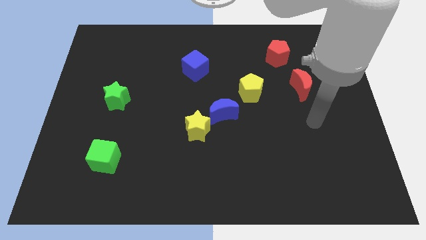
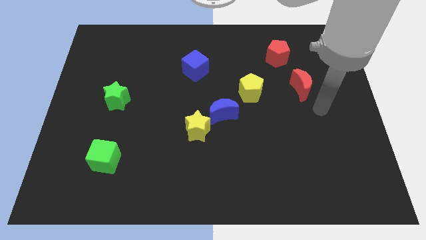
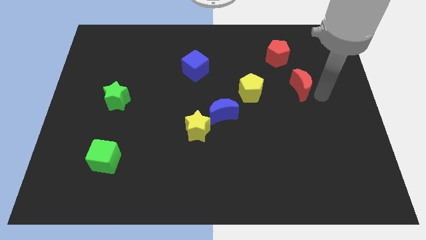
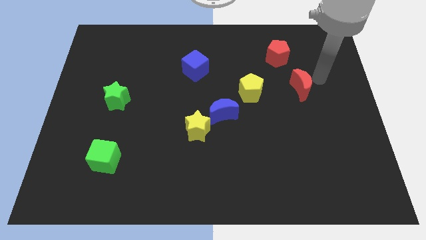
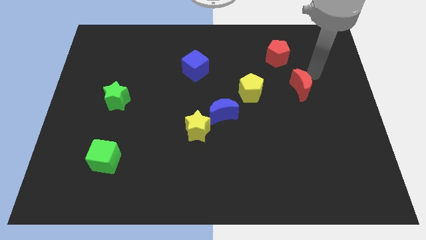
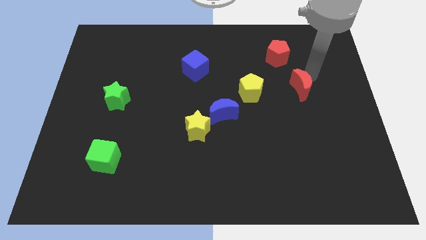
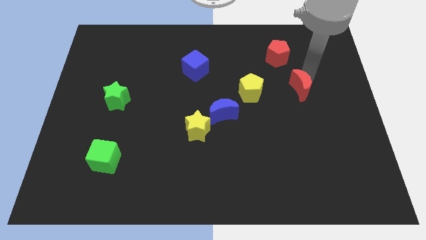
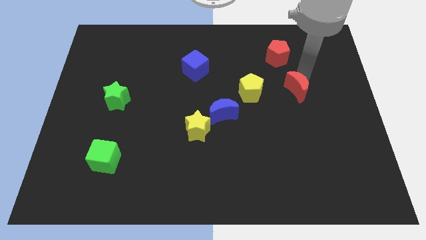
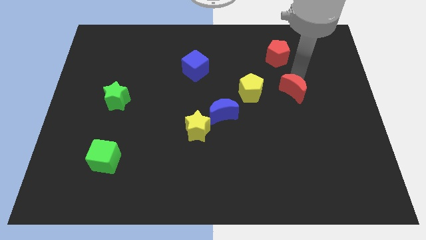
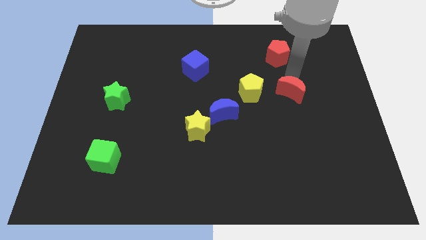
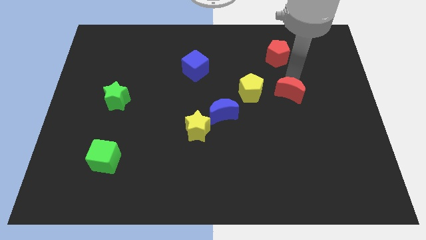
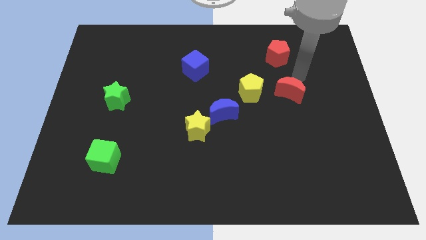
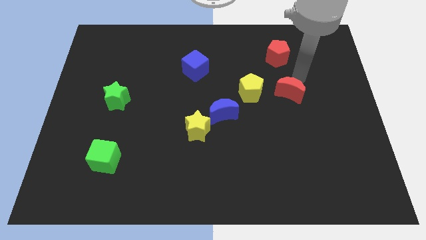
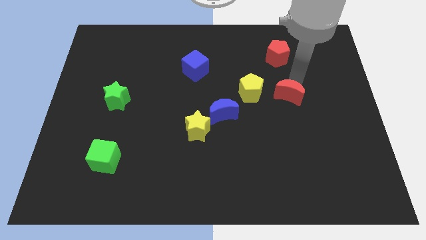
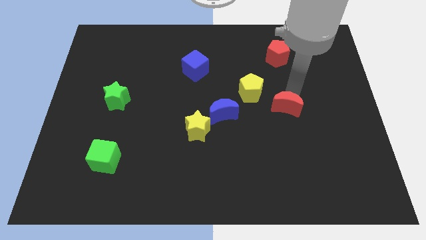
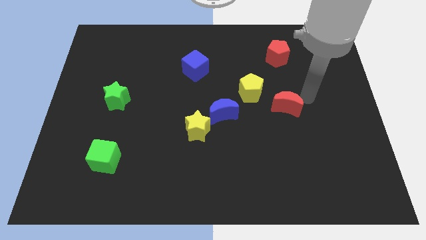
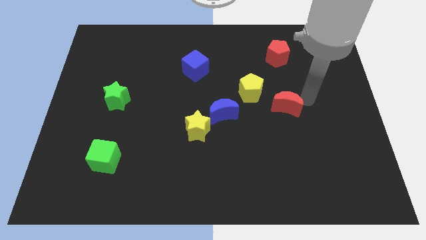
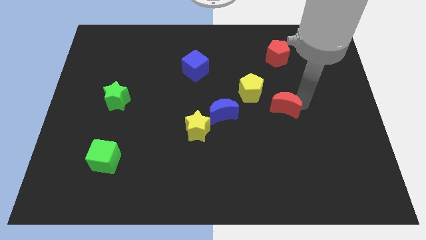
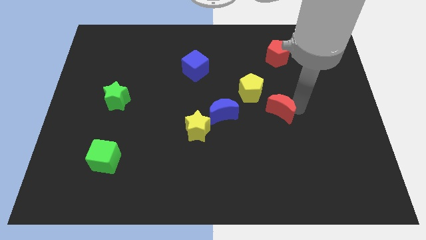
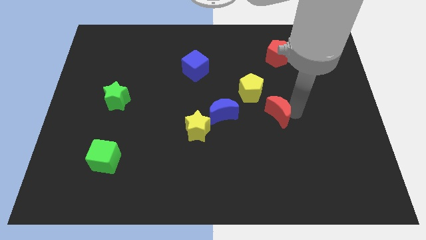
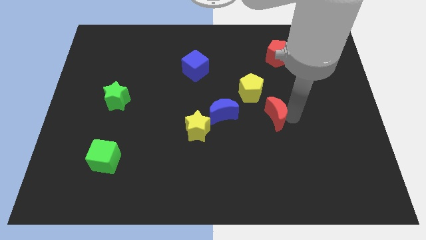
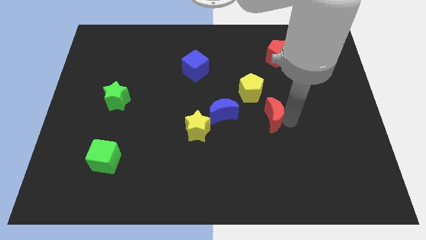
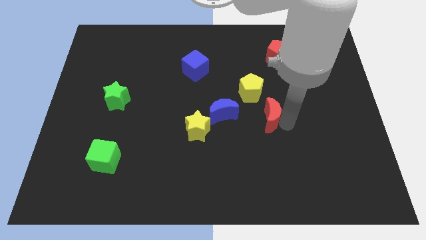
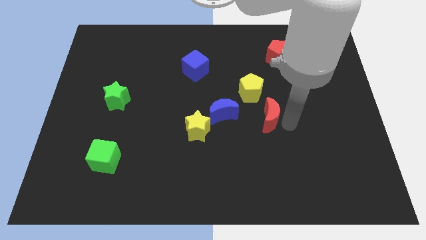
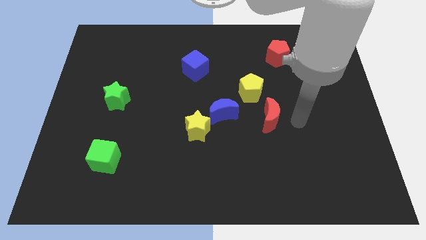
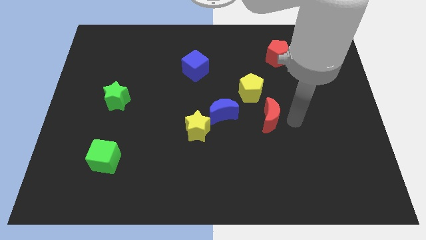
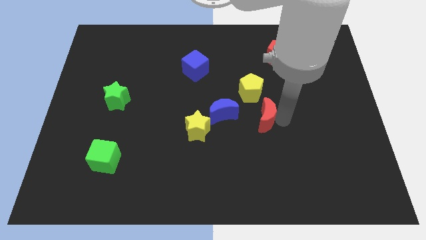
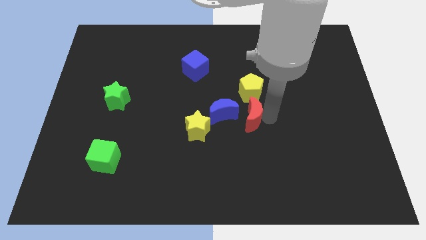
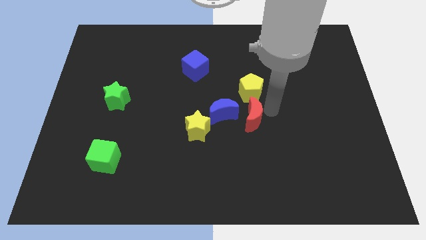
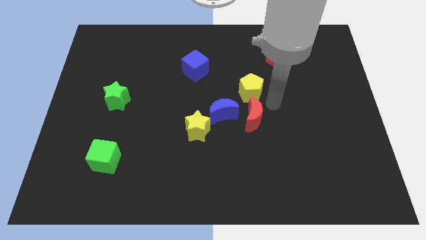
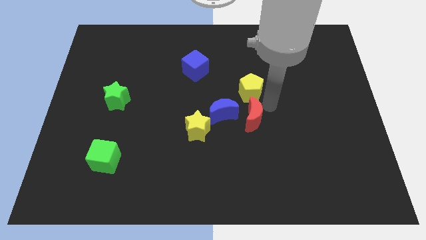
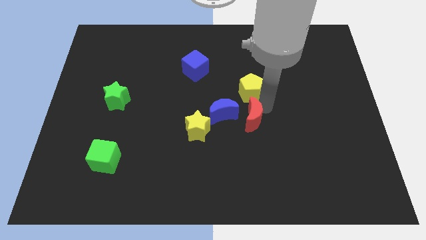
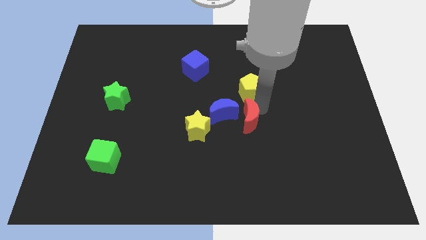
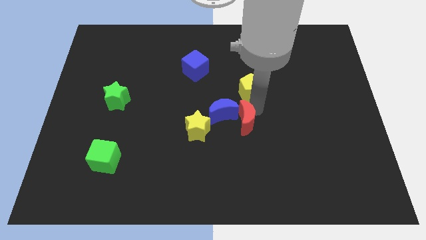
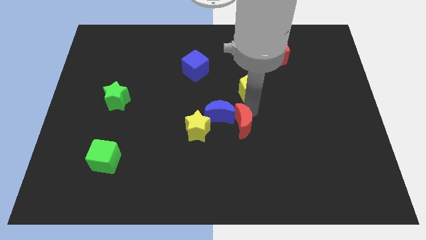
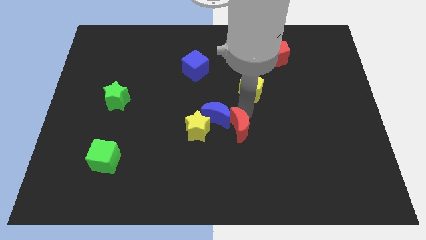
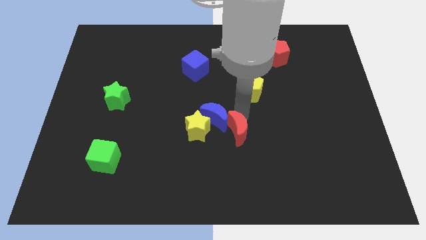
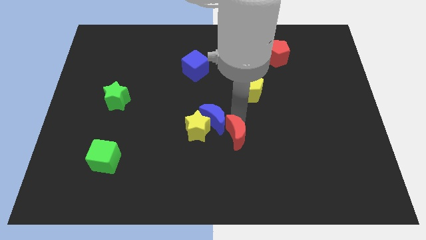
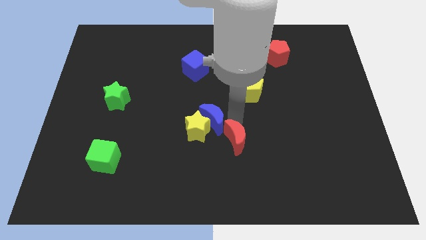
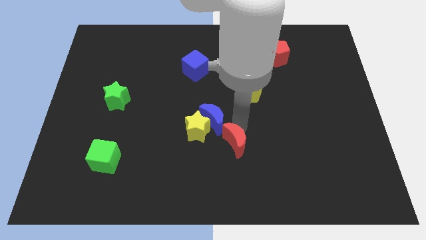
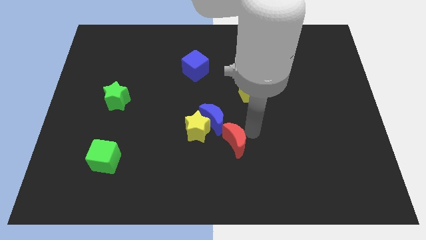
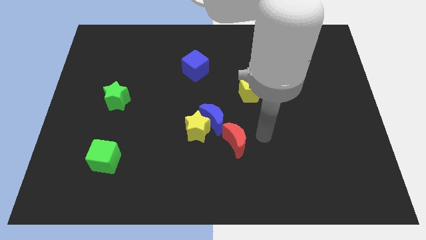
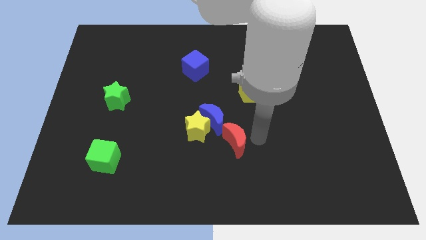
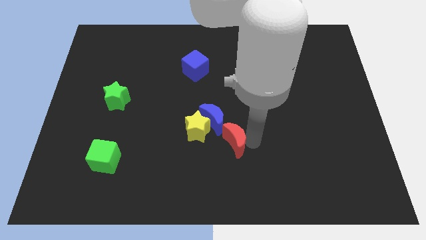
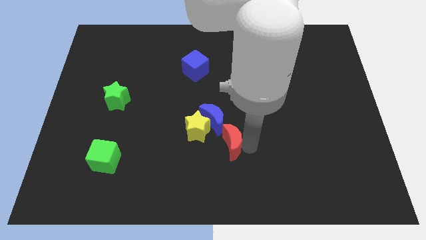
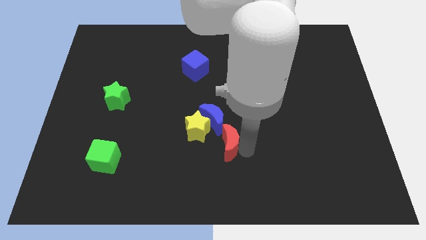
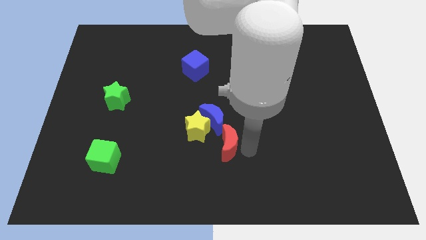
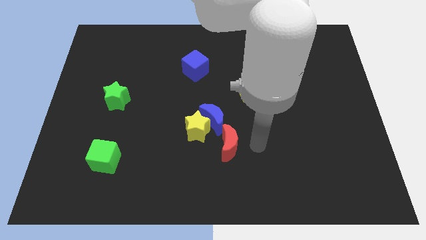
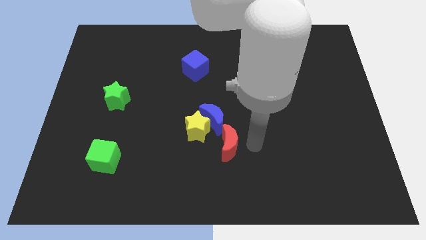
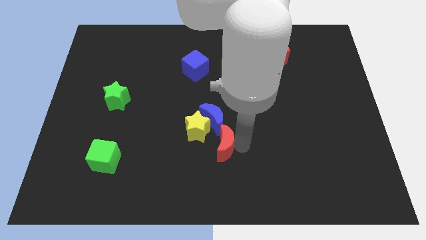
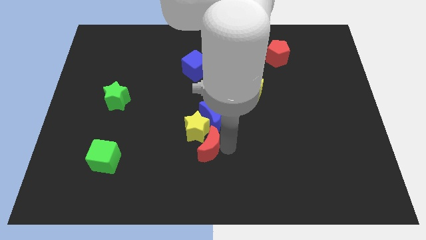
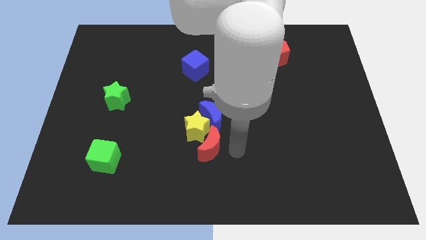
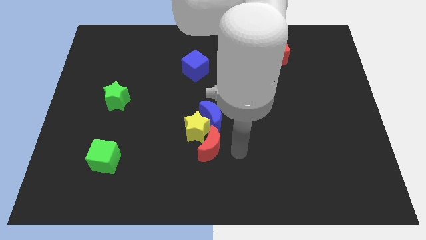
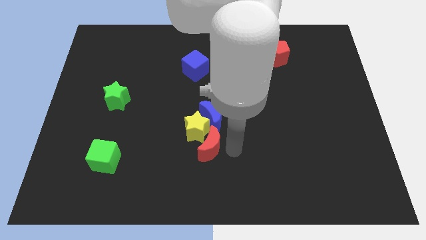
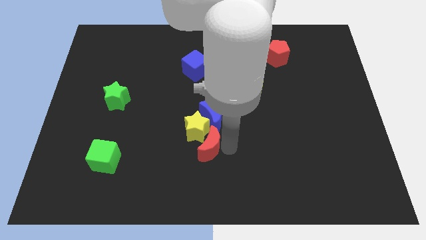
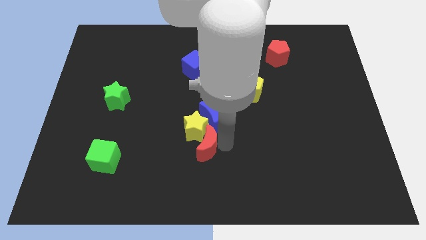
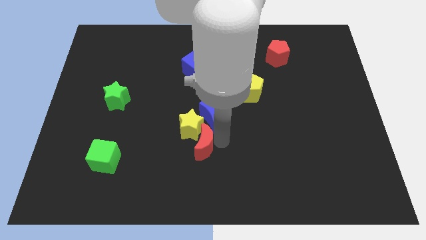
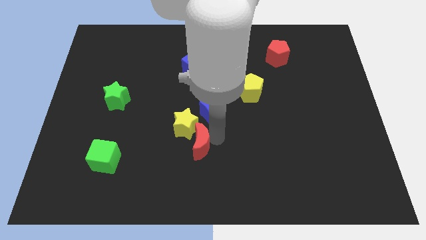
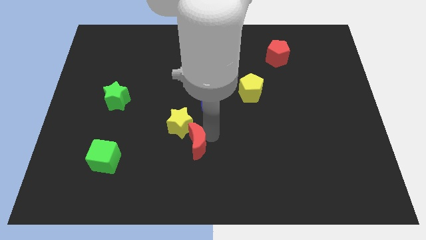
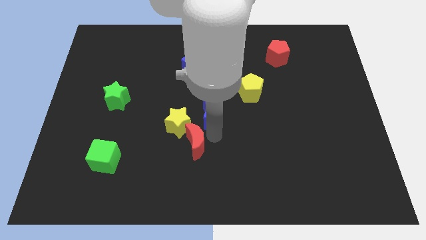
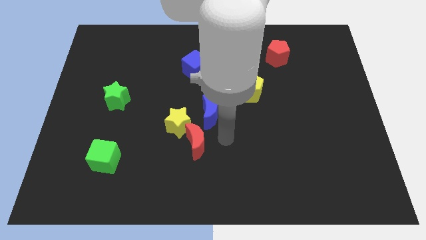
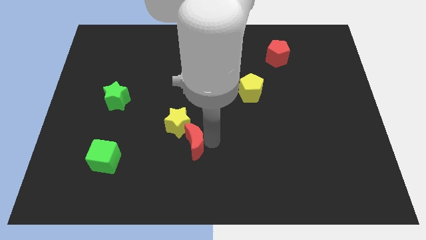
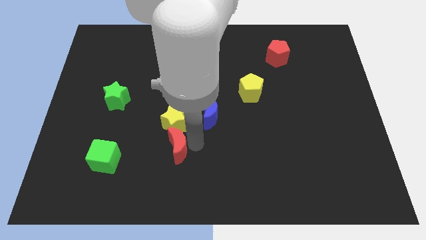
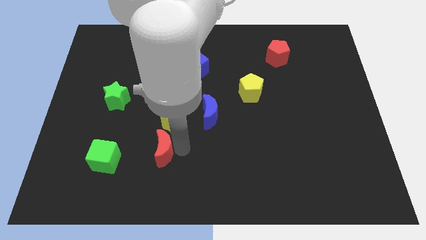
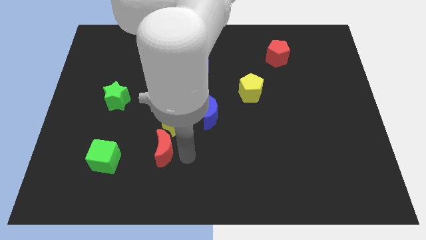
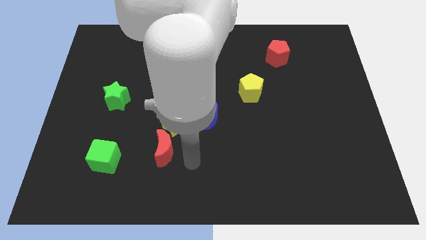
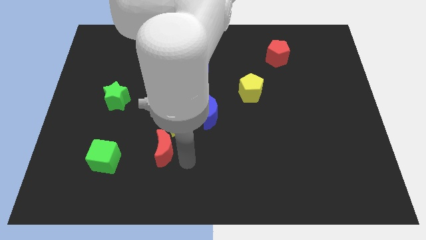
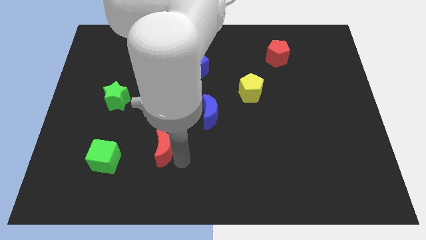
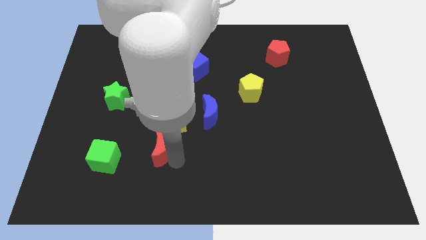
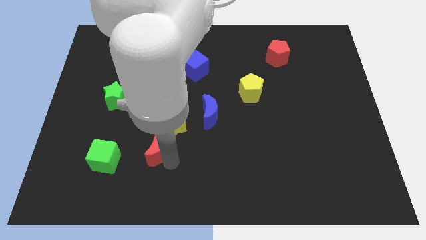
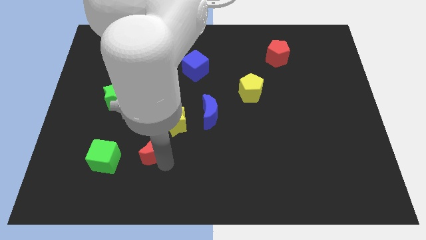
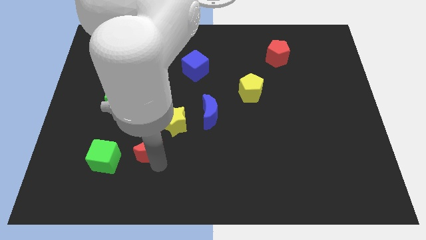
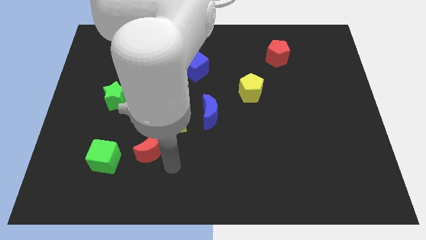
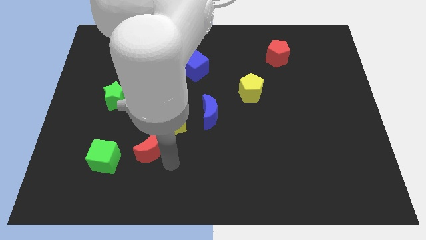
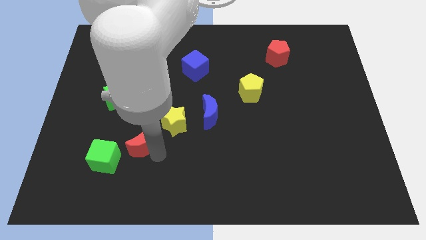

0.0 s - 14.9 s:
move the red moon to the top right side of the green cube

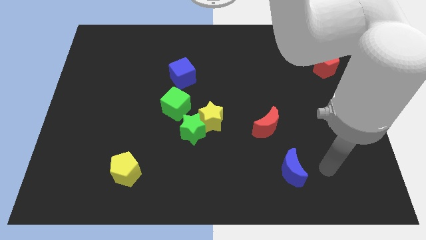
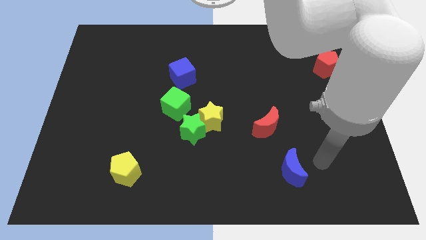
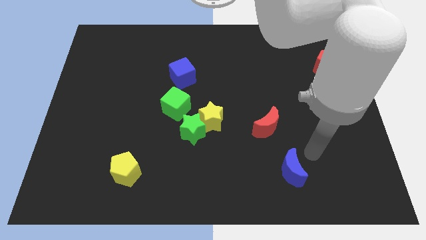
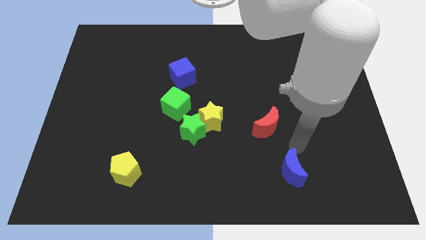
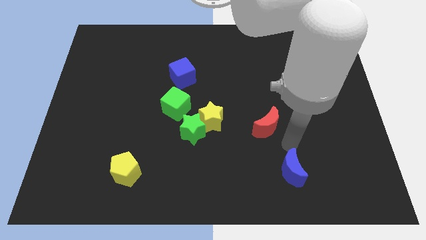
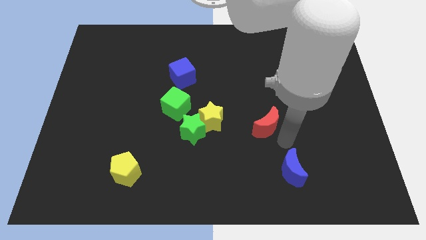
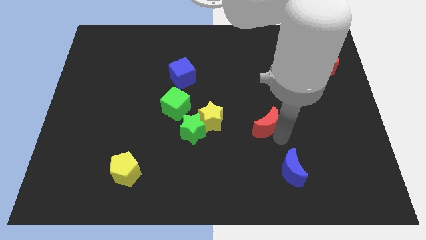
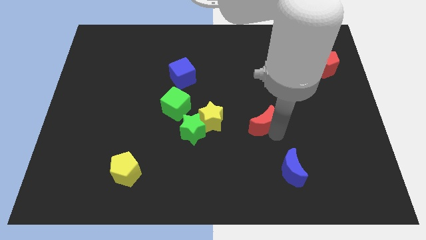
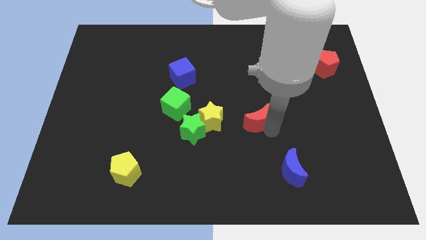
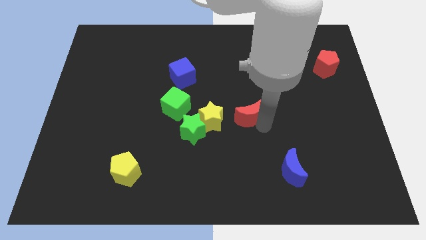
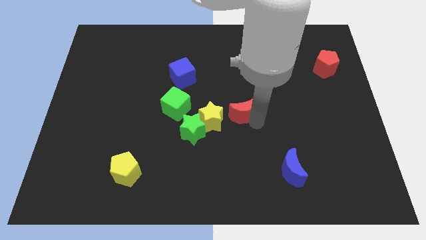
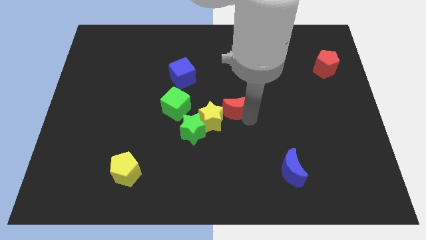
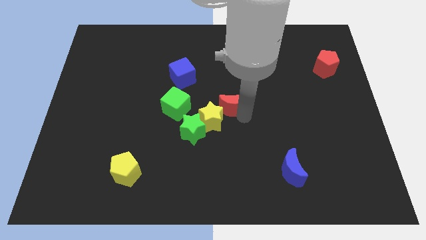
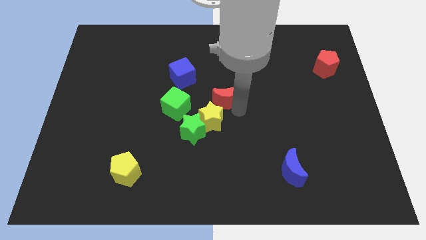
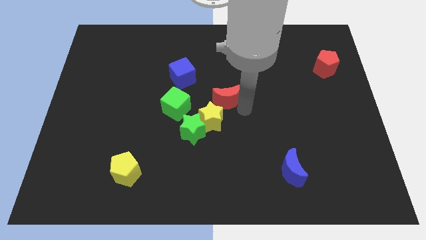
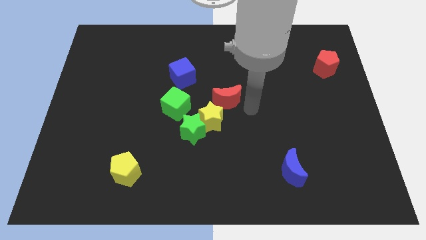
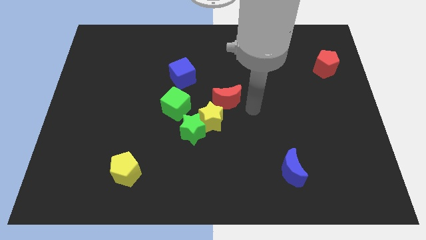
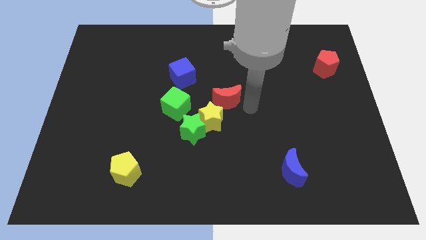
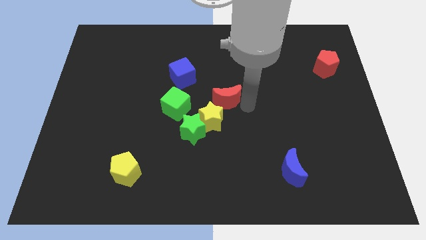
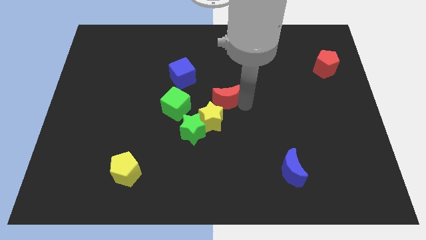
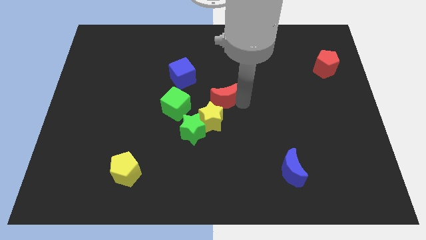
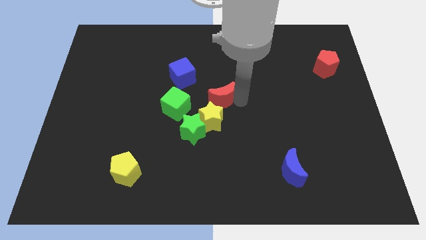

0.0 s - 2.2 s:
put the red moon to the bottom right of the blue cube
